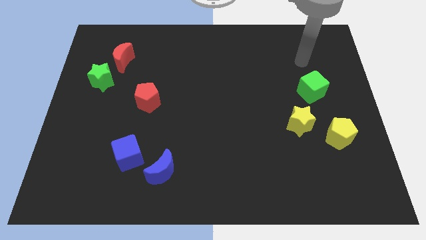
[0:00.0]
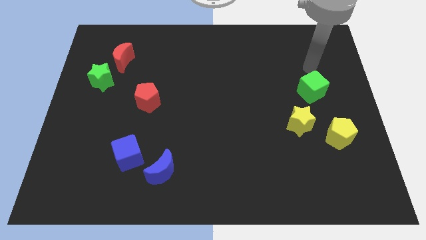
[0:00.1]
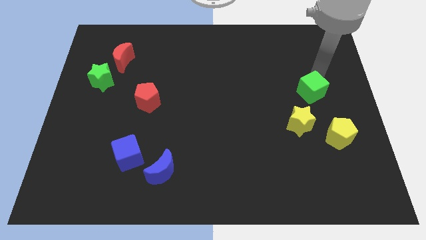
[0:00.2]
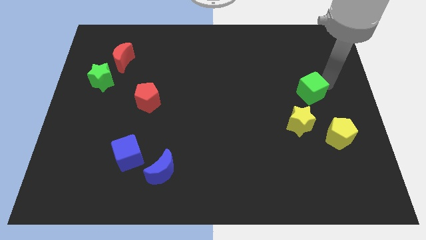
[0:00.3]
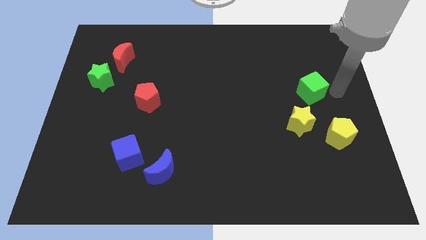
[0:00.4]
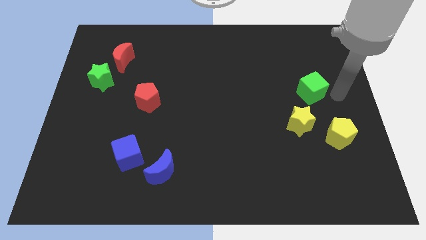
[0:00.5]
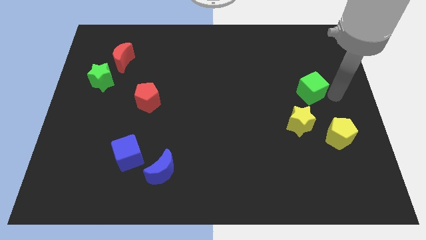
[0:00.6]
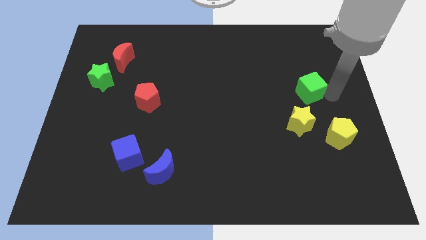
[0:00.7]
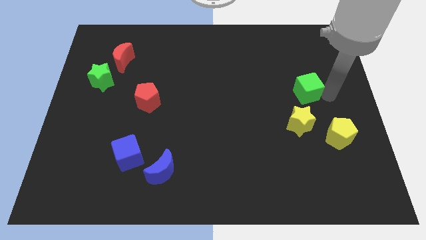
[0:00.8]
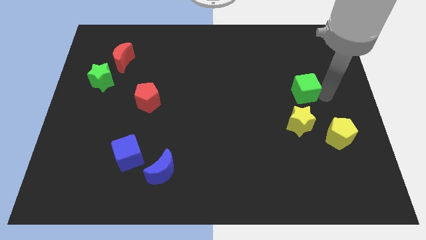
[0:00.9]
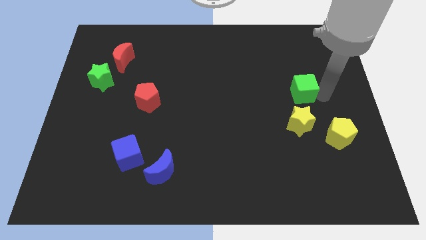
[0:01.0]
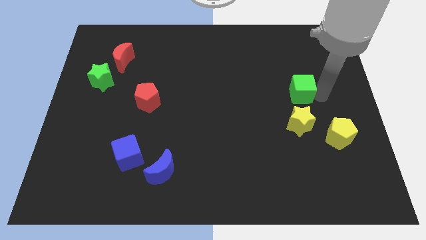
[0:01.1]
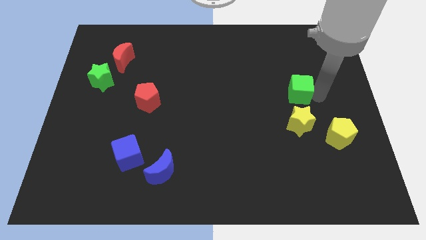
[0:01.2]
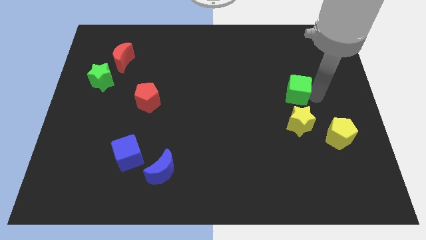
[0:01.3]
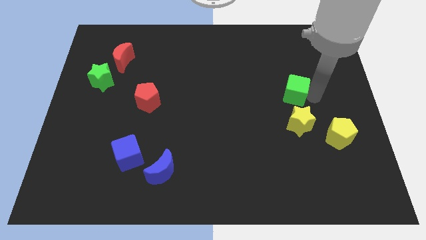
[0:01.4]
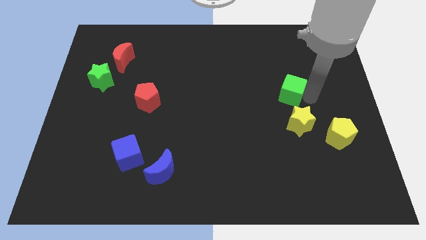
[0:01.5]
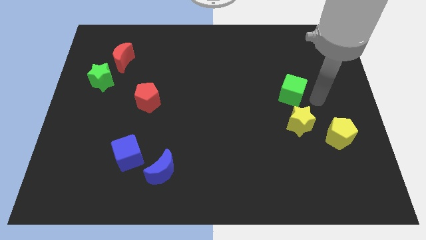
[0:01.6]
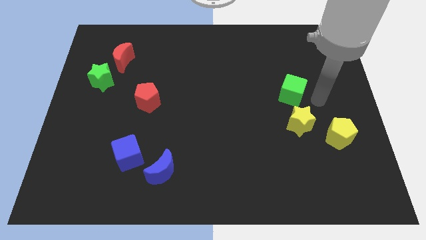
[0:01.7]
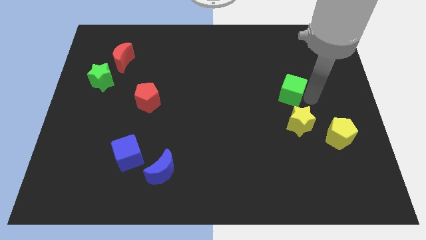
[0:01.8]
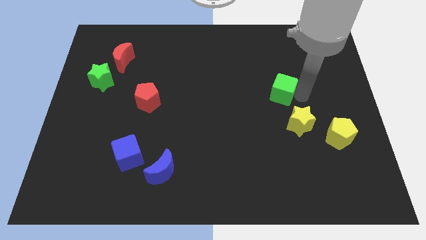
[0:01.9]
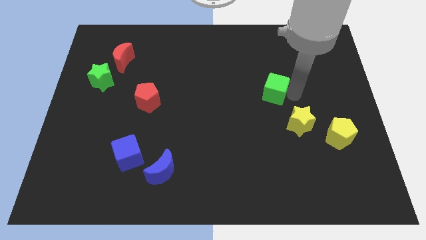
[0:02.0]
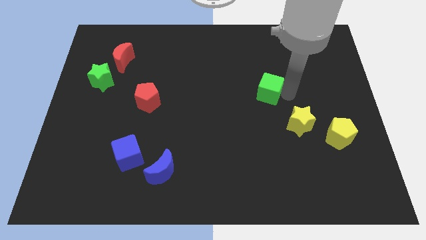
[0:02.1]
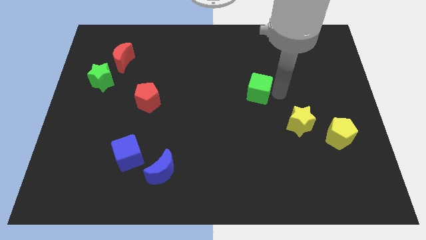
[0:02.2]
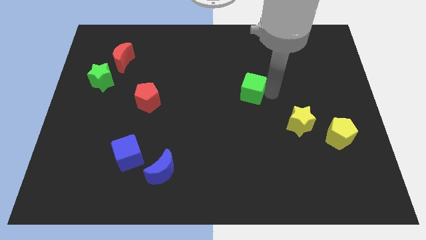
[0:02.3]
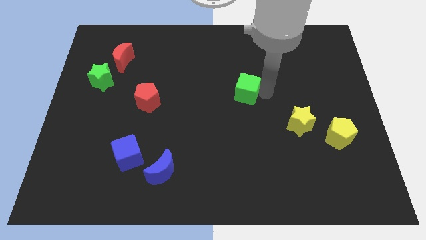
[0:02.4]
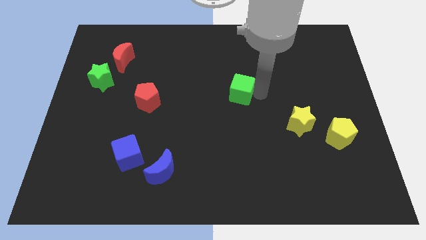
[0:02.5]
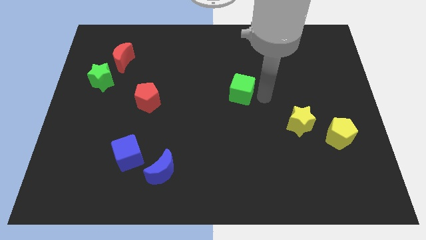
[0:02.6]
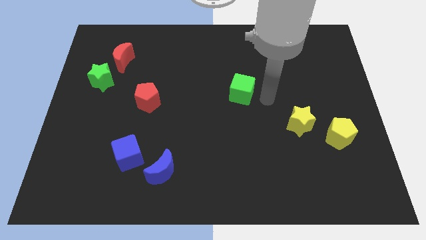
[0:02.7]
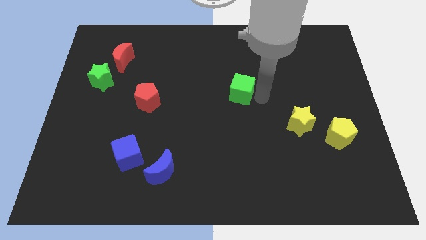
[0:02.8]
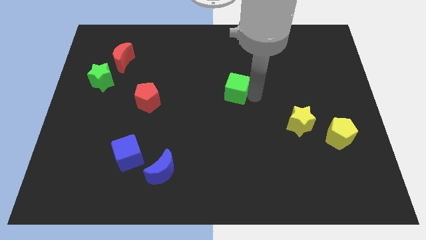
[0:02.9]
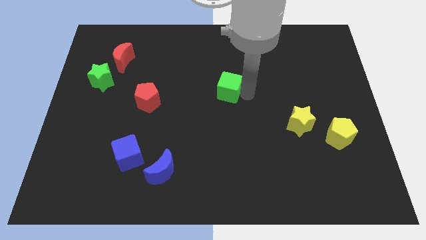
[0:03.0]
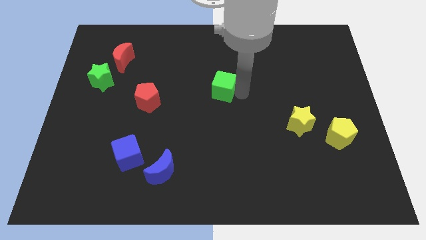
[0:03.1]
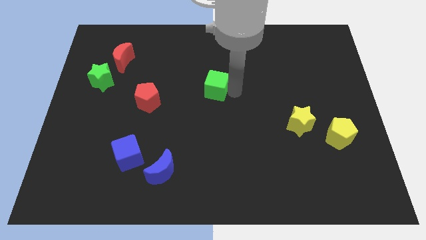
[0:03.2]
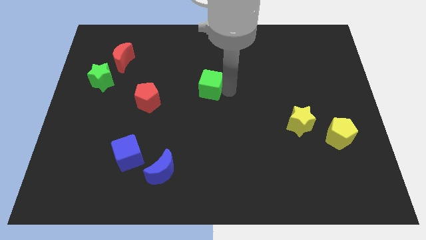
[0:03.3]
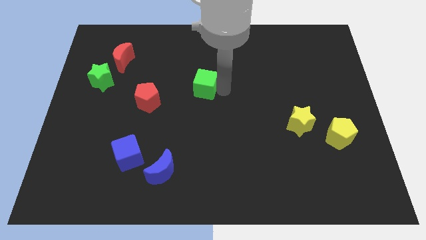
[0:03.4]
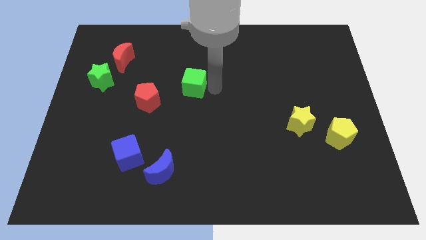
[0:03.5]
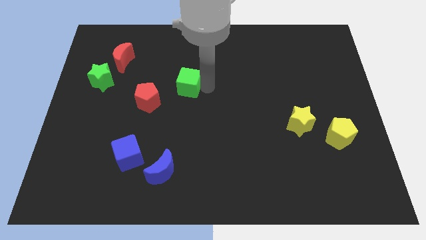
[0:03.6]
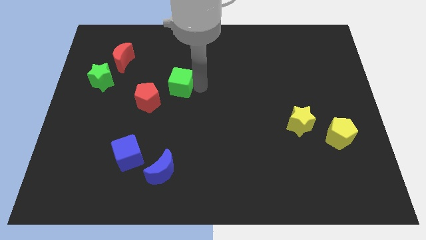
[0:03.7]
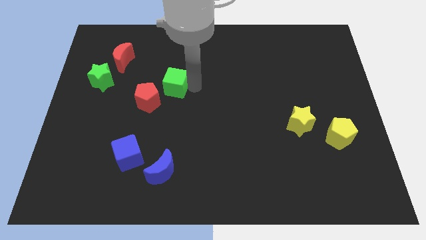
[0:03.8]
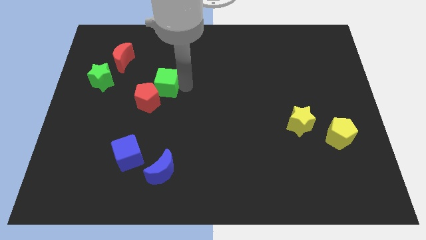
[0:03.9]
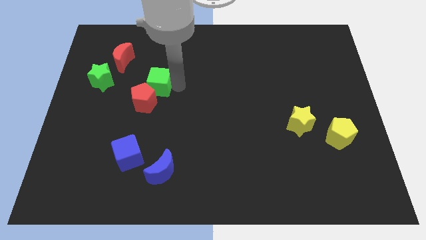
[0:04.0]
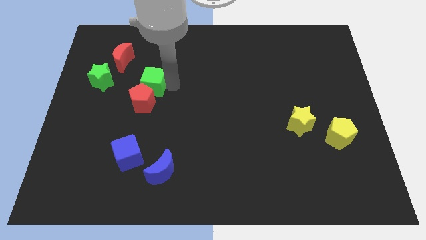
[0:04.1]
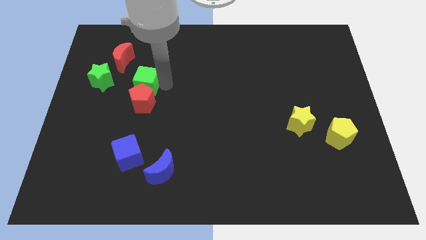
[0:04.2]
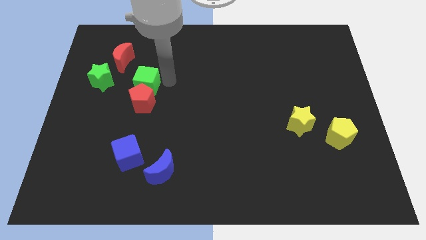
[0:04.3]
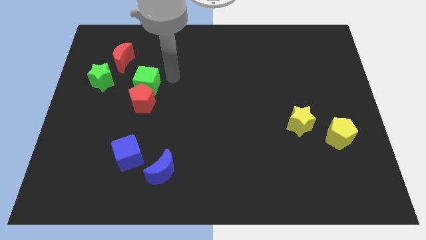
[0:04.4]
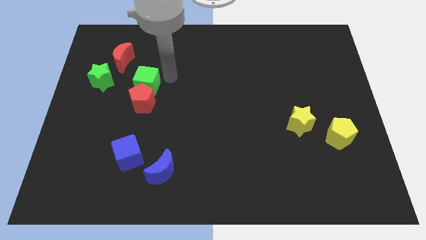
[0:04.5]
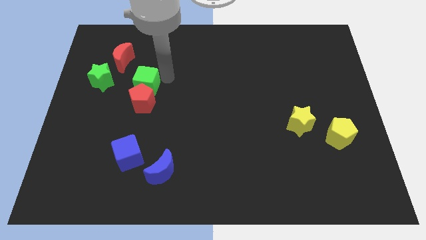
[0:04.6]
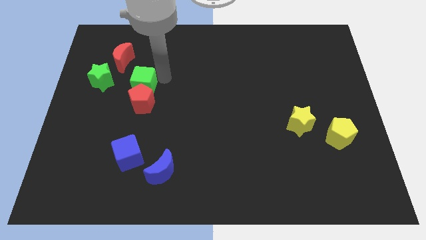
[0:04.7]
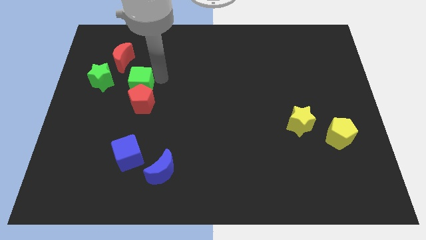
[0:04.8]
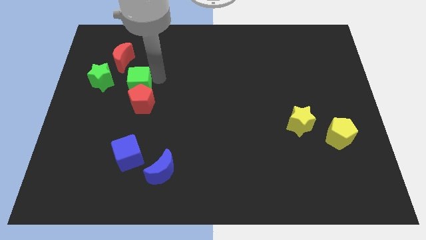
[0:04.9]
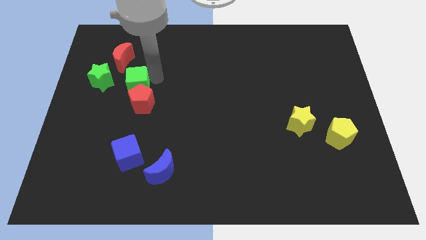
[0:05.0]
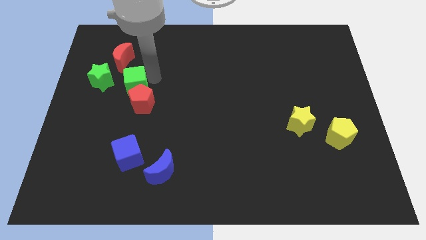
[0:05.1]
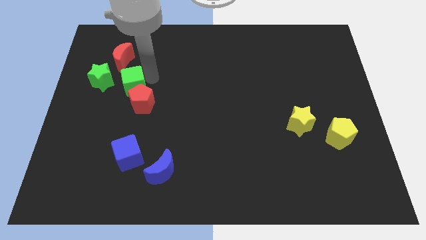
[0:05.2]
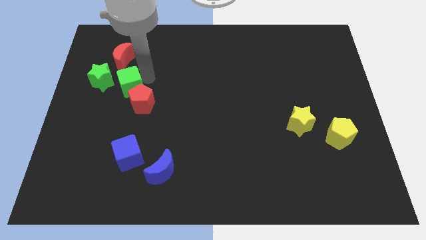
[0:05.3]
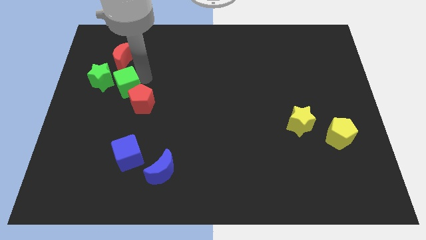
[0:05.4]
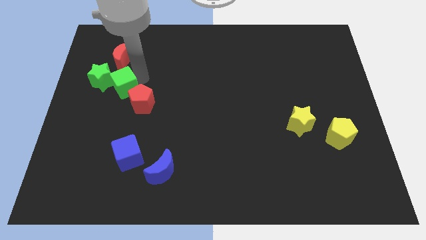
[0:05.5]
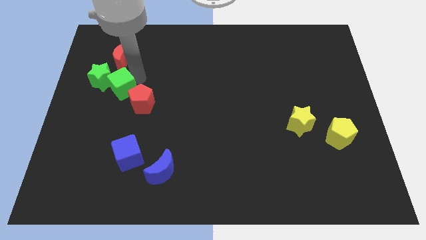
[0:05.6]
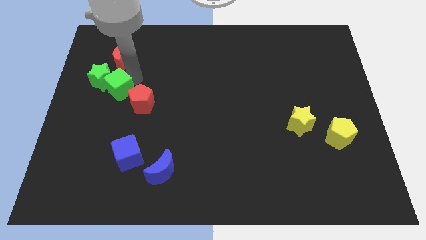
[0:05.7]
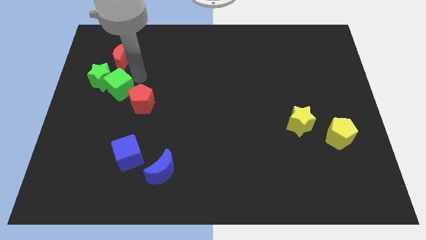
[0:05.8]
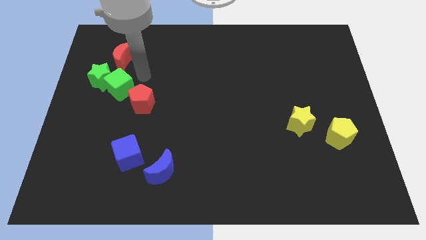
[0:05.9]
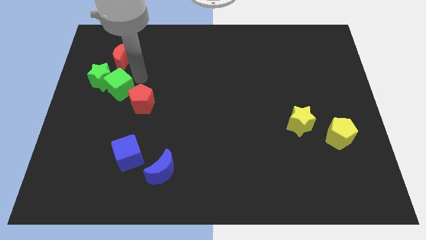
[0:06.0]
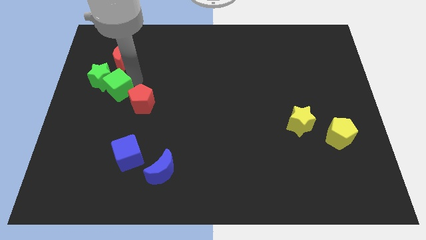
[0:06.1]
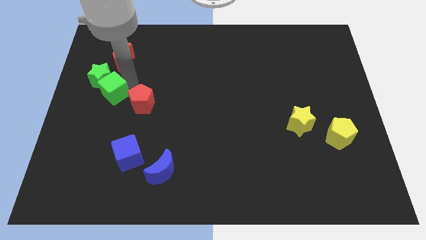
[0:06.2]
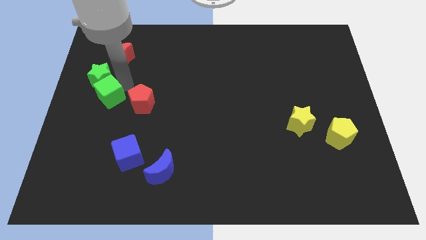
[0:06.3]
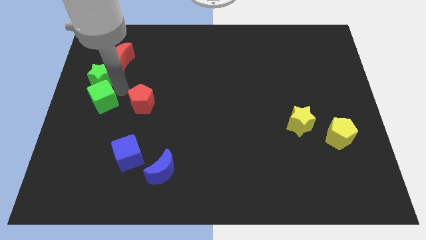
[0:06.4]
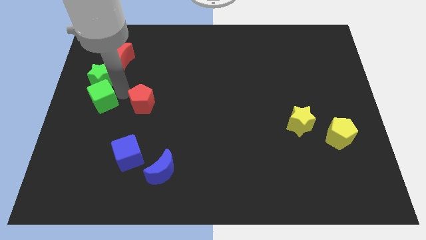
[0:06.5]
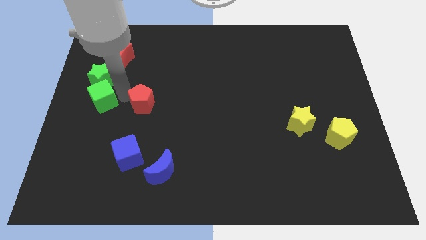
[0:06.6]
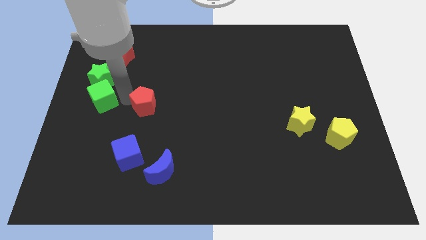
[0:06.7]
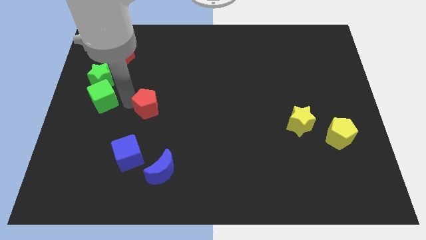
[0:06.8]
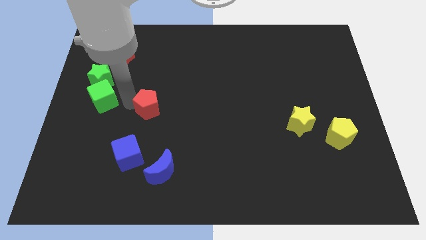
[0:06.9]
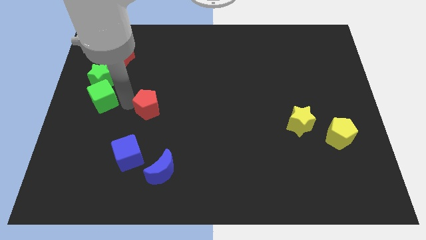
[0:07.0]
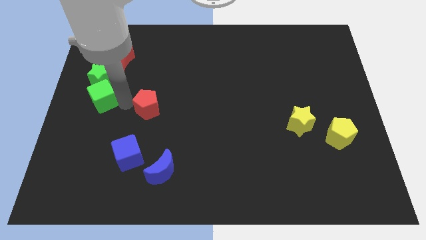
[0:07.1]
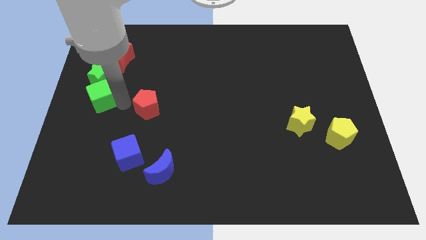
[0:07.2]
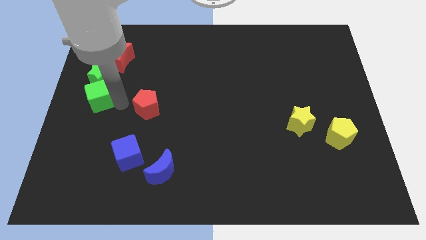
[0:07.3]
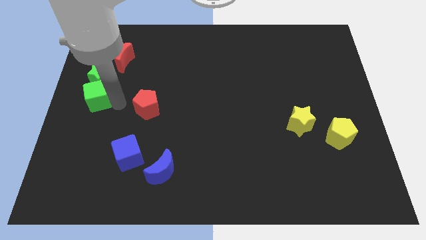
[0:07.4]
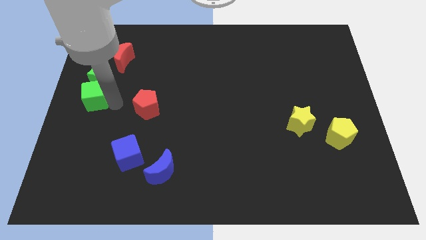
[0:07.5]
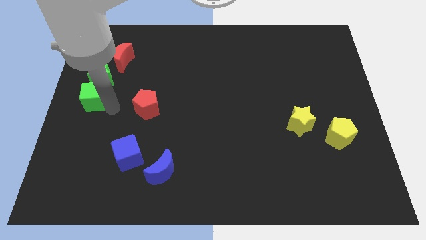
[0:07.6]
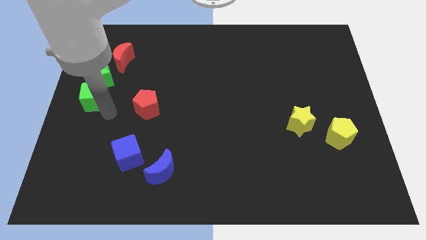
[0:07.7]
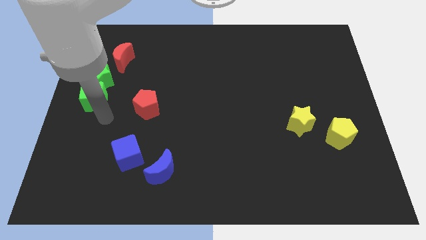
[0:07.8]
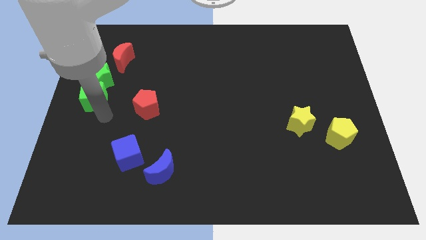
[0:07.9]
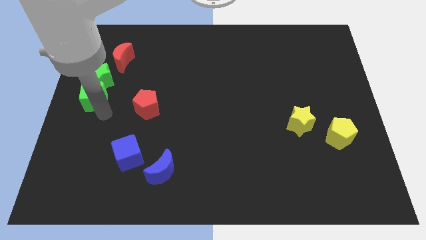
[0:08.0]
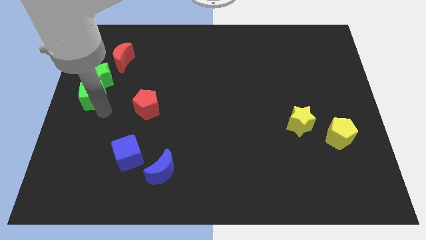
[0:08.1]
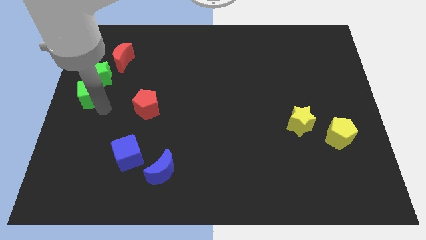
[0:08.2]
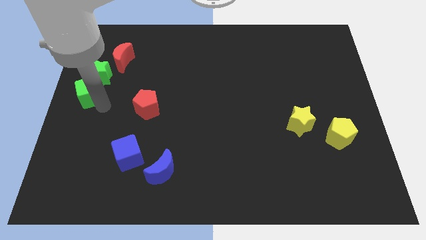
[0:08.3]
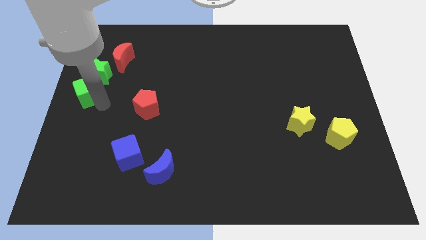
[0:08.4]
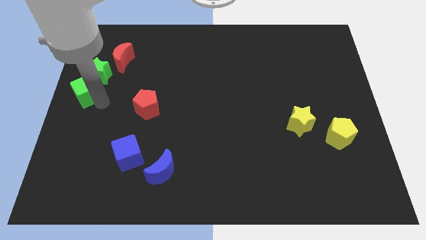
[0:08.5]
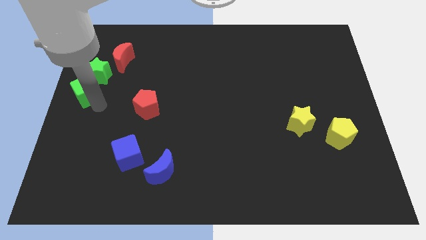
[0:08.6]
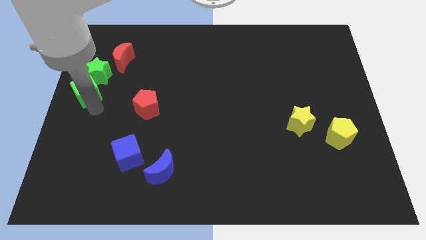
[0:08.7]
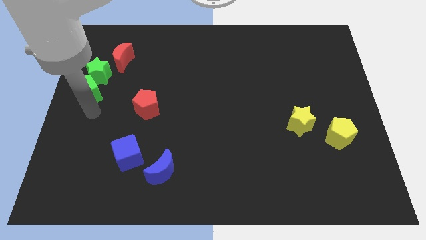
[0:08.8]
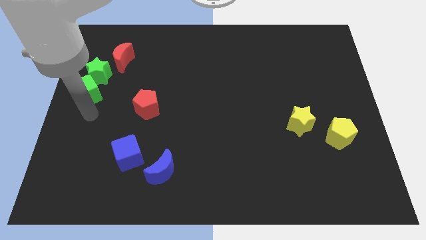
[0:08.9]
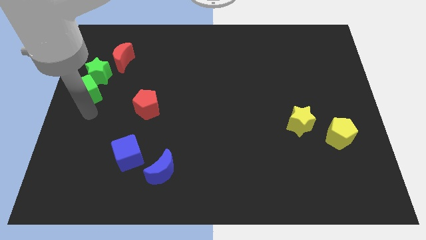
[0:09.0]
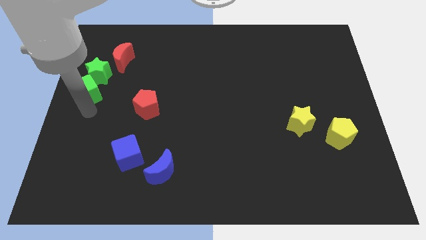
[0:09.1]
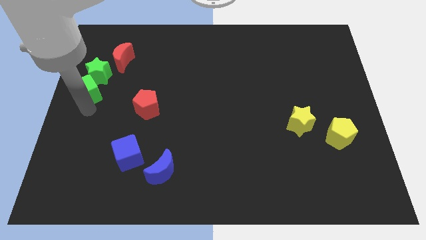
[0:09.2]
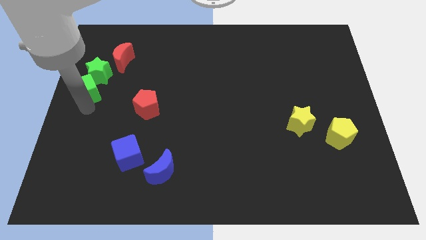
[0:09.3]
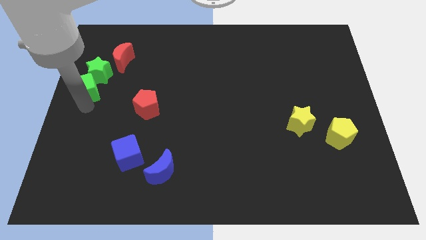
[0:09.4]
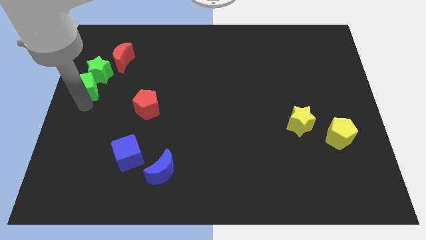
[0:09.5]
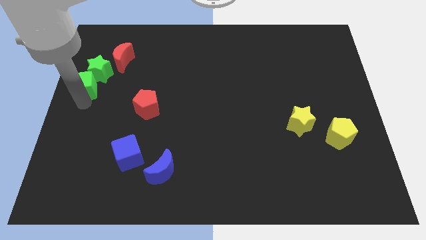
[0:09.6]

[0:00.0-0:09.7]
move the green cube to the bottom left of the red moon
